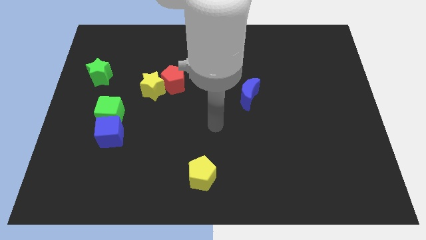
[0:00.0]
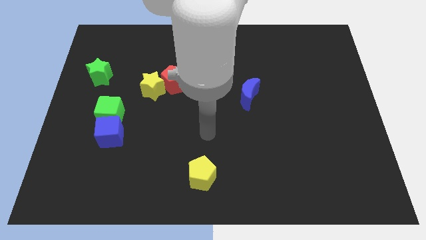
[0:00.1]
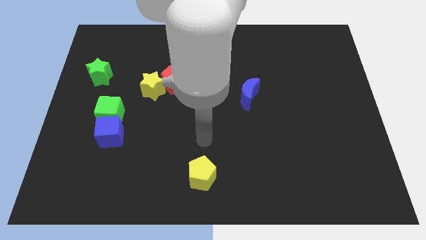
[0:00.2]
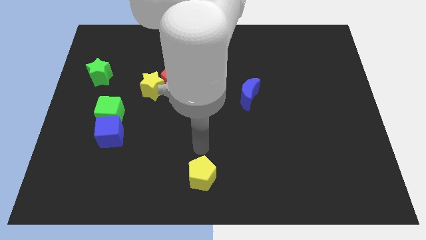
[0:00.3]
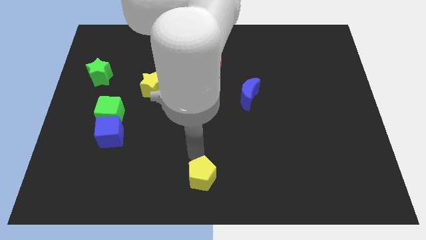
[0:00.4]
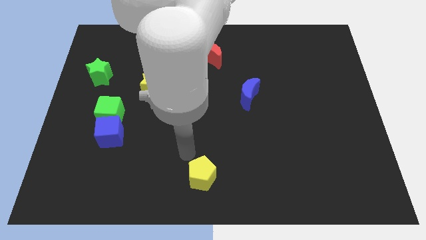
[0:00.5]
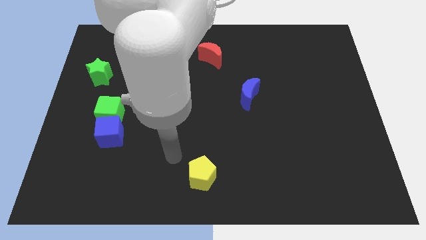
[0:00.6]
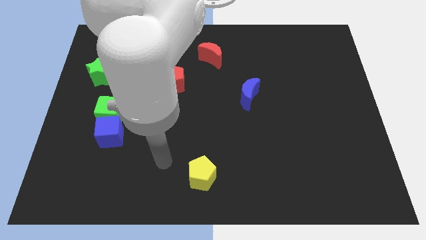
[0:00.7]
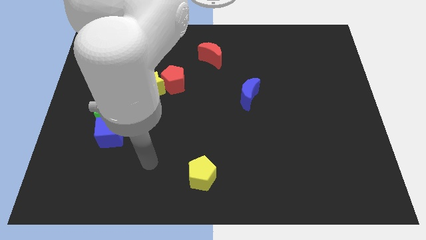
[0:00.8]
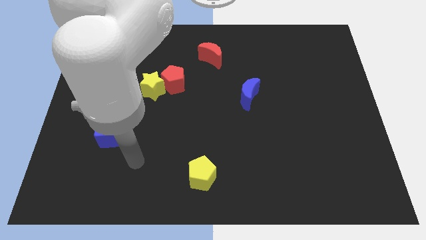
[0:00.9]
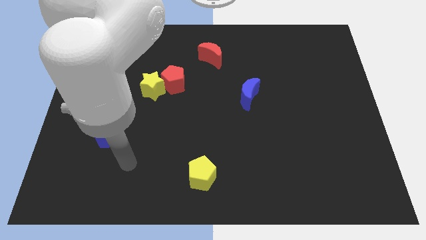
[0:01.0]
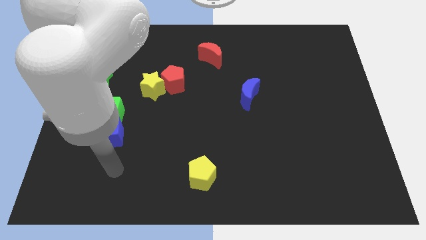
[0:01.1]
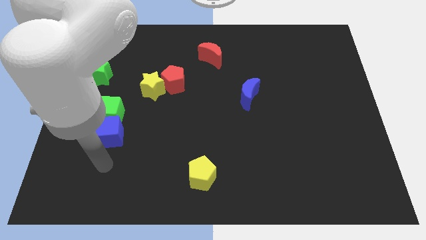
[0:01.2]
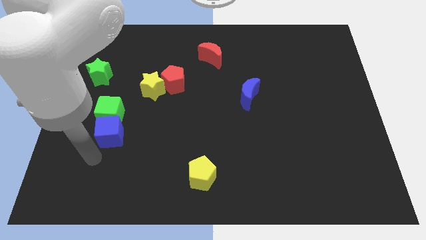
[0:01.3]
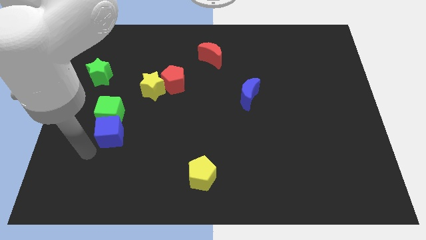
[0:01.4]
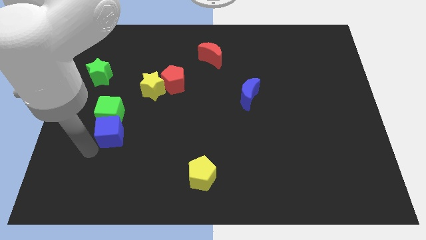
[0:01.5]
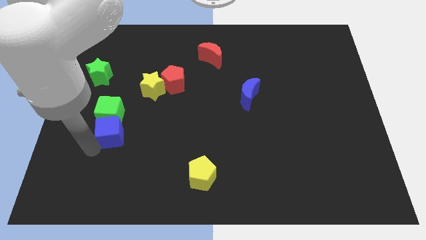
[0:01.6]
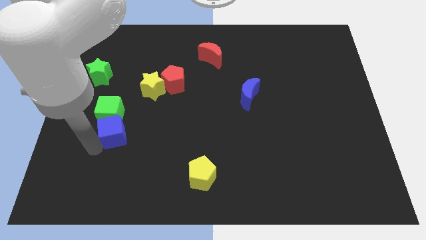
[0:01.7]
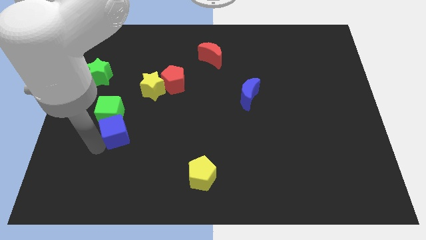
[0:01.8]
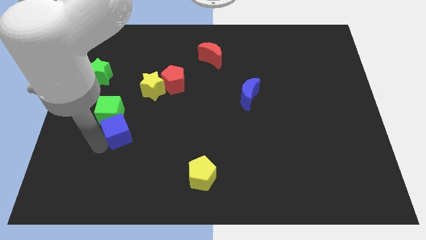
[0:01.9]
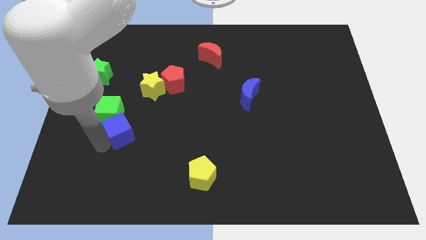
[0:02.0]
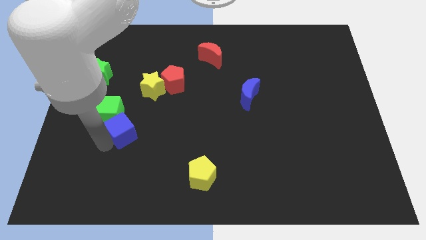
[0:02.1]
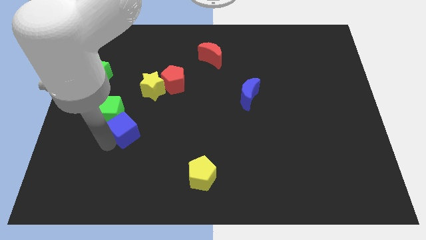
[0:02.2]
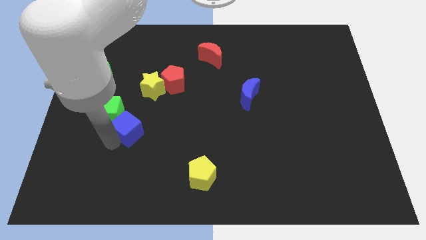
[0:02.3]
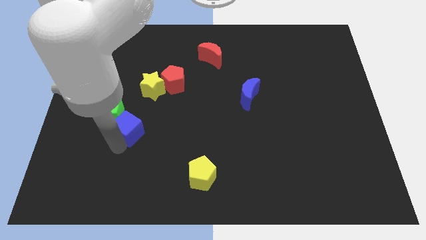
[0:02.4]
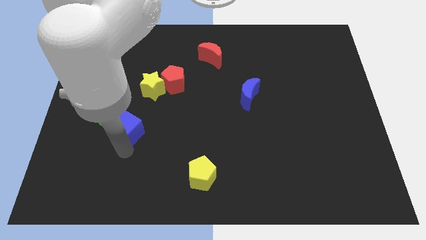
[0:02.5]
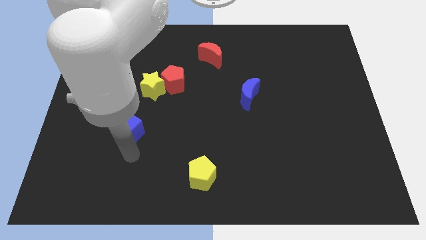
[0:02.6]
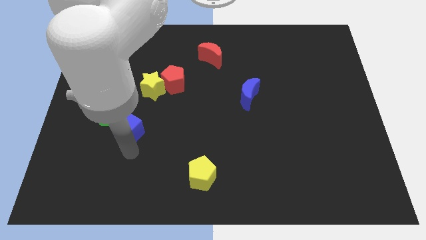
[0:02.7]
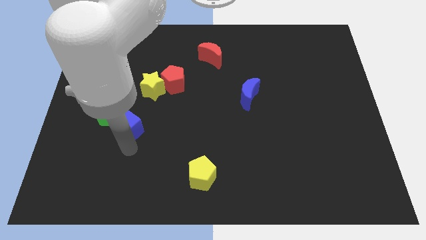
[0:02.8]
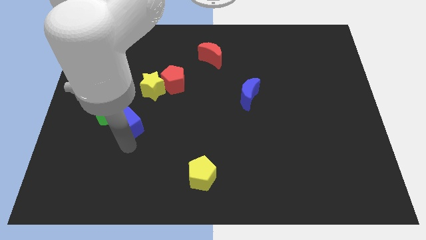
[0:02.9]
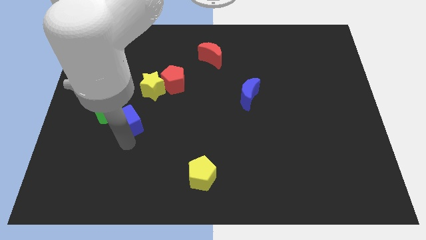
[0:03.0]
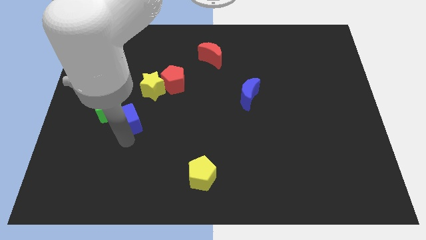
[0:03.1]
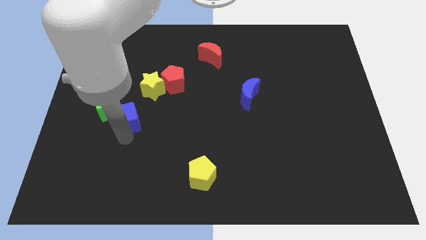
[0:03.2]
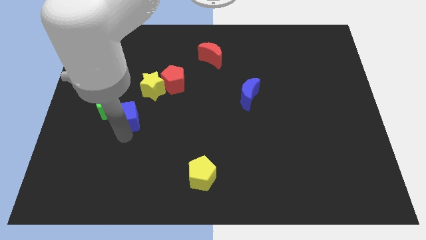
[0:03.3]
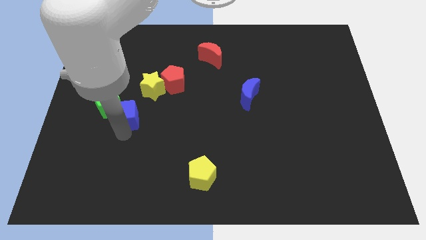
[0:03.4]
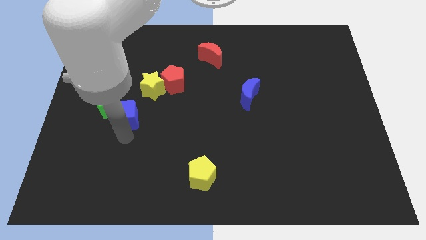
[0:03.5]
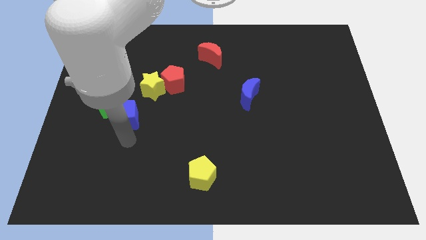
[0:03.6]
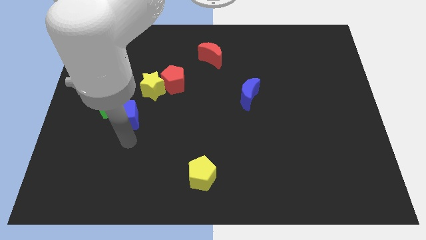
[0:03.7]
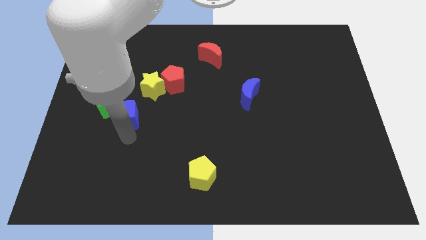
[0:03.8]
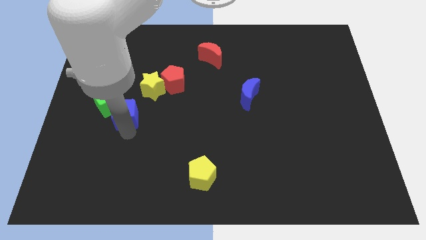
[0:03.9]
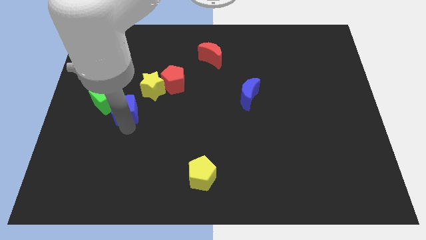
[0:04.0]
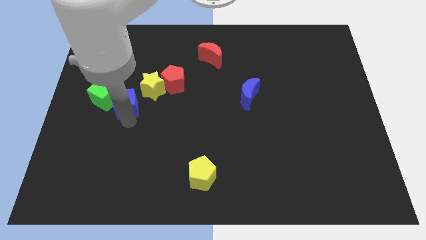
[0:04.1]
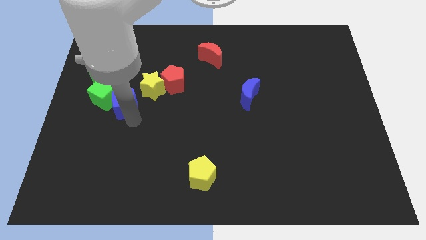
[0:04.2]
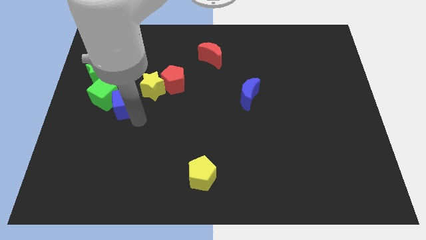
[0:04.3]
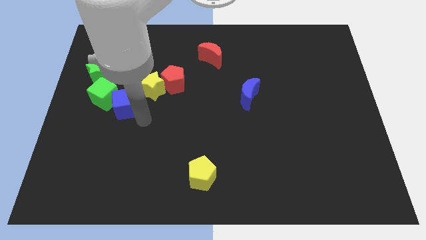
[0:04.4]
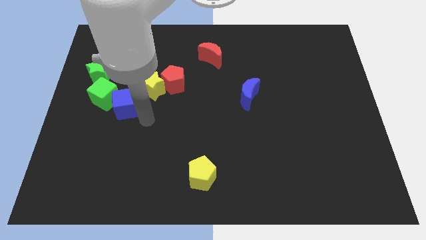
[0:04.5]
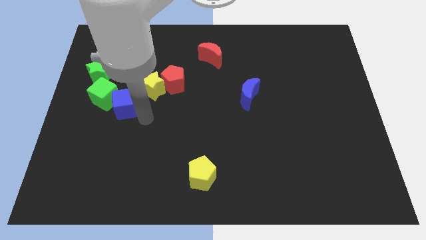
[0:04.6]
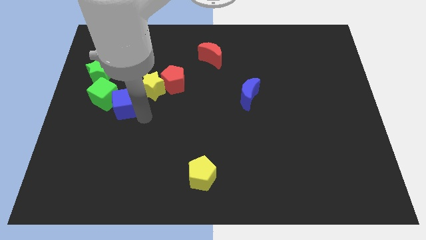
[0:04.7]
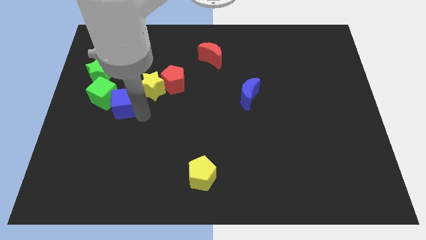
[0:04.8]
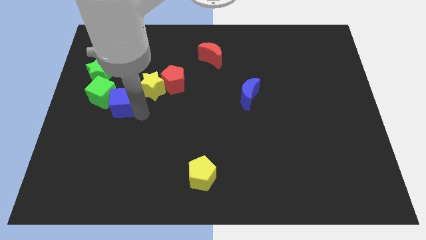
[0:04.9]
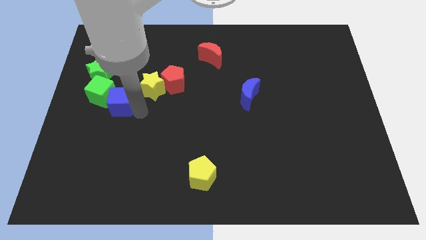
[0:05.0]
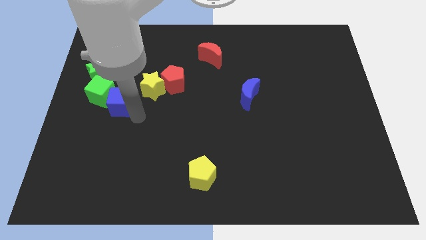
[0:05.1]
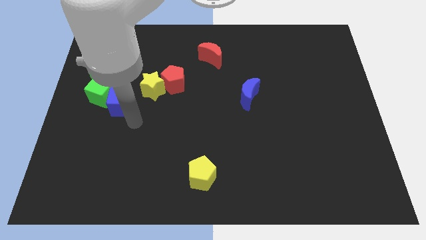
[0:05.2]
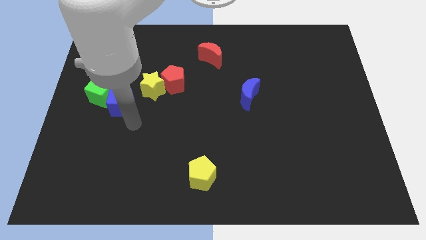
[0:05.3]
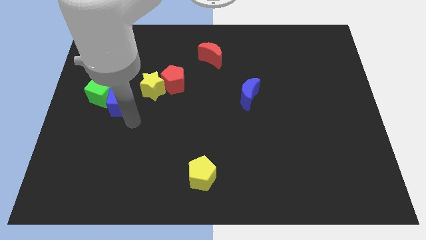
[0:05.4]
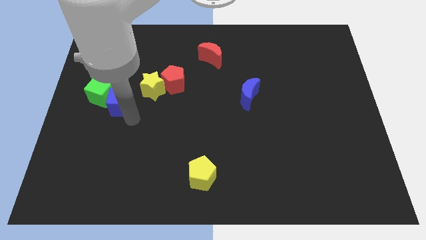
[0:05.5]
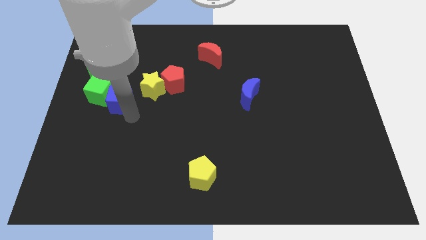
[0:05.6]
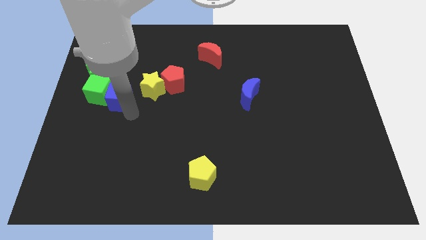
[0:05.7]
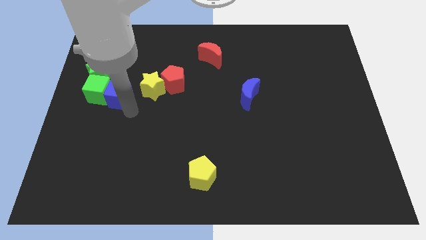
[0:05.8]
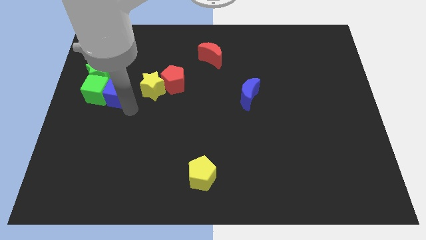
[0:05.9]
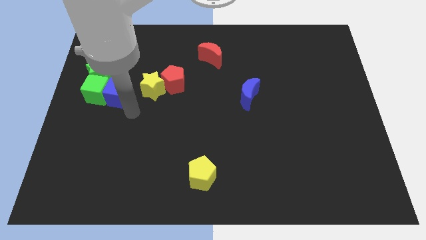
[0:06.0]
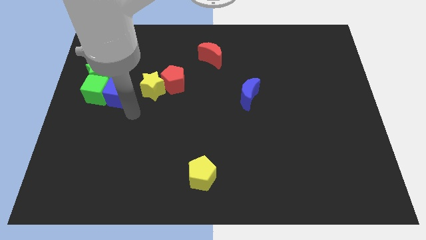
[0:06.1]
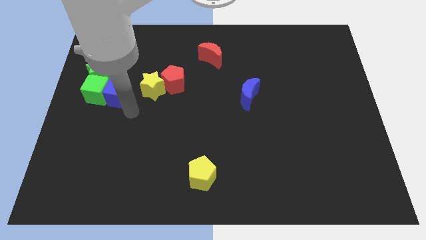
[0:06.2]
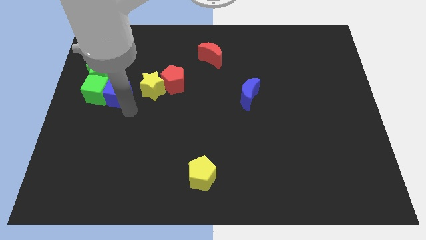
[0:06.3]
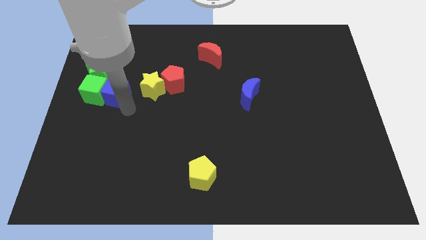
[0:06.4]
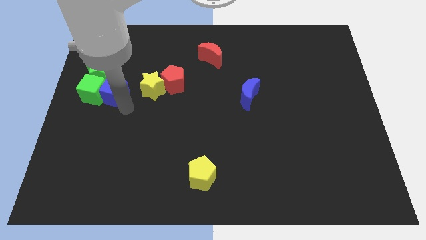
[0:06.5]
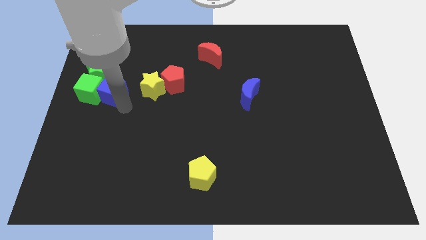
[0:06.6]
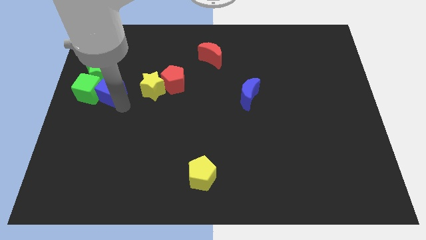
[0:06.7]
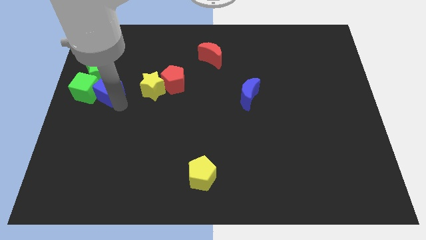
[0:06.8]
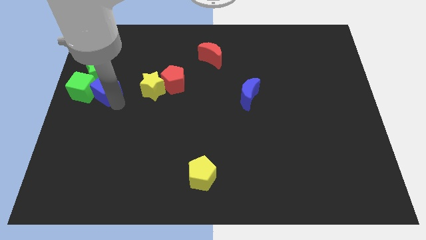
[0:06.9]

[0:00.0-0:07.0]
push the blue cube close to the green star
